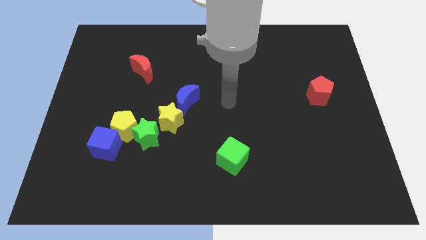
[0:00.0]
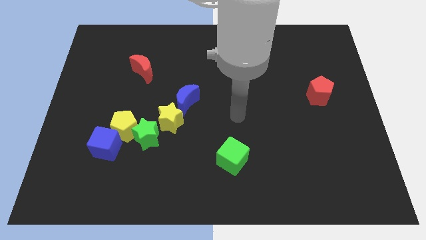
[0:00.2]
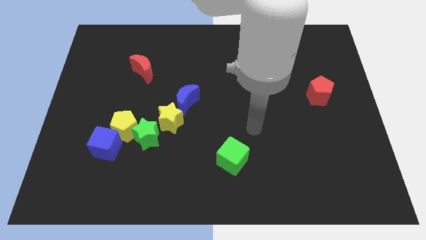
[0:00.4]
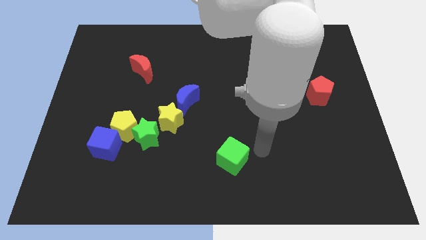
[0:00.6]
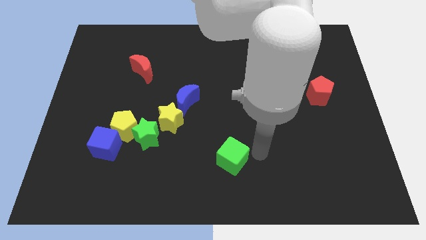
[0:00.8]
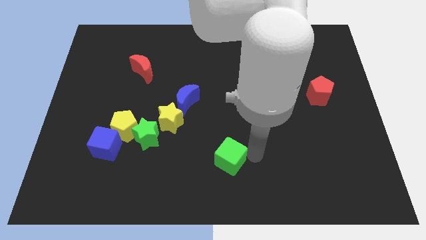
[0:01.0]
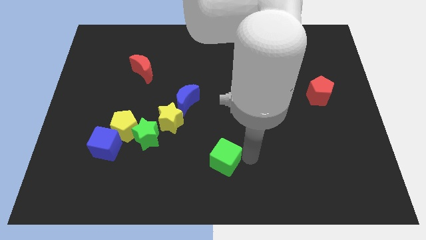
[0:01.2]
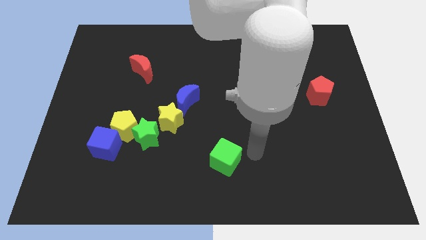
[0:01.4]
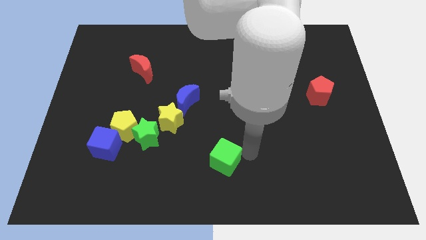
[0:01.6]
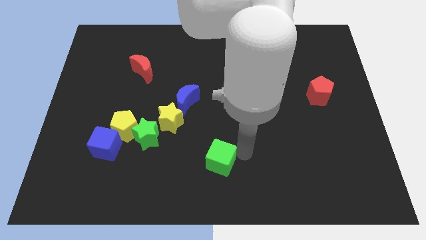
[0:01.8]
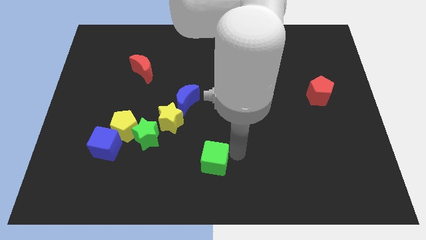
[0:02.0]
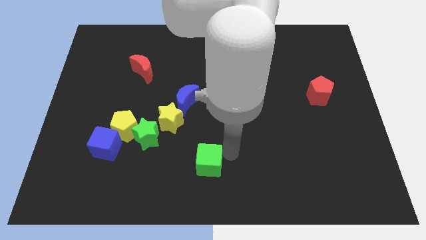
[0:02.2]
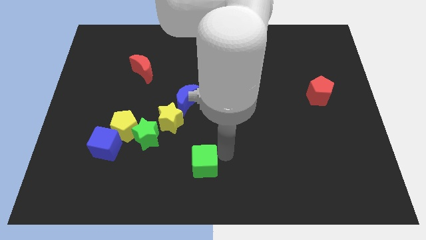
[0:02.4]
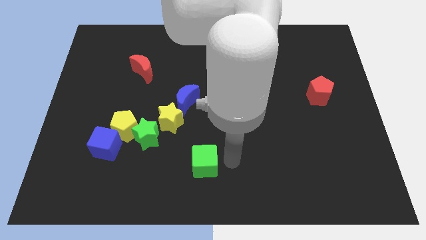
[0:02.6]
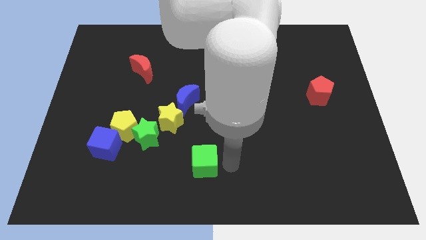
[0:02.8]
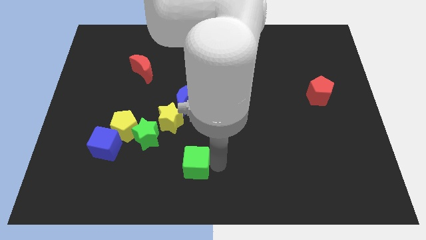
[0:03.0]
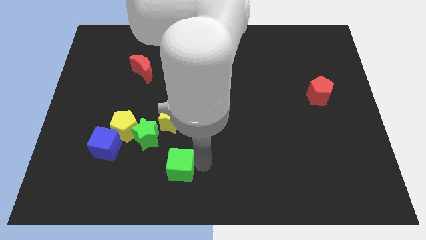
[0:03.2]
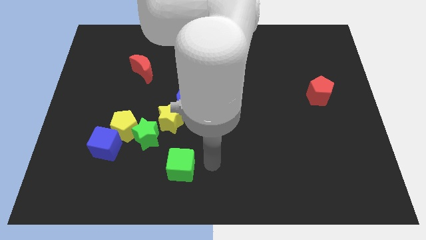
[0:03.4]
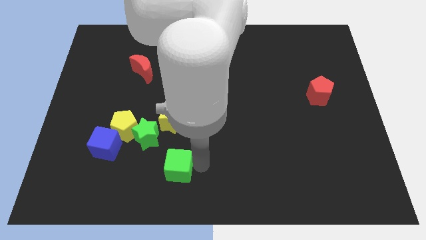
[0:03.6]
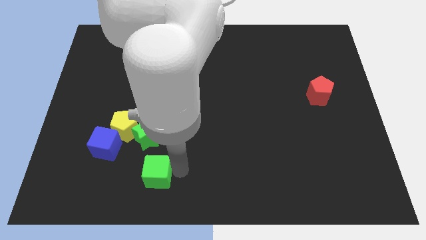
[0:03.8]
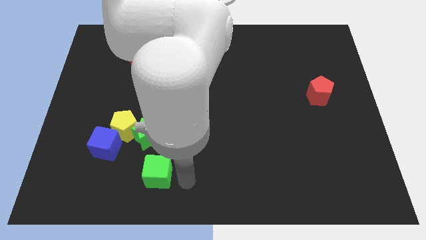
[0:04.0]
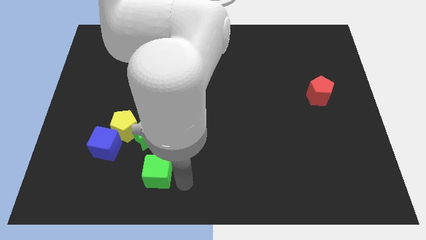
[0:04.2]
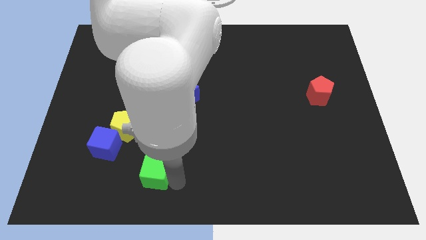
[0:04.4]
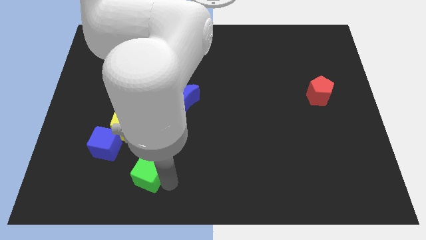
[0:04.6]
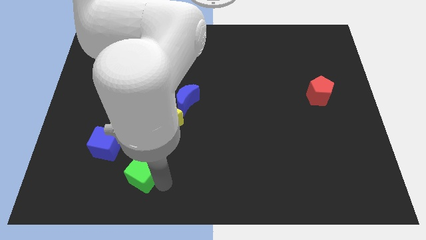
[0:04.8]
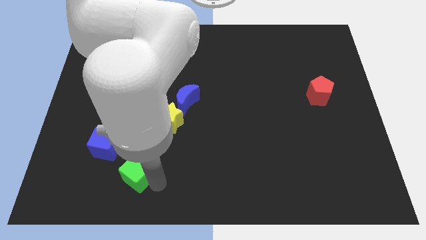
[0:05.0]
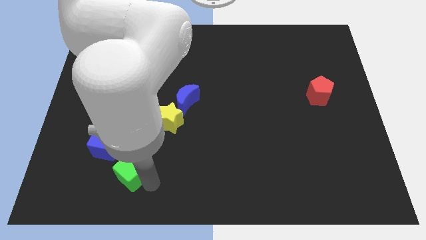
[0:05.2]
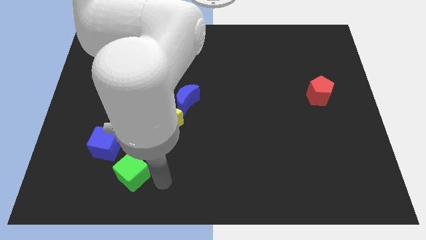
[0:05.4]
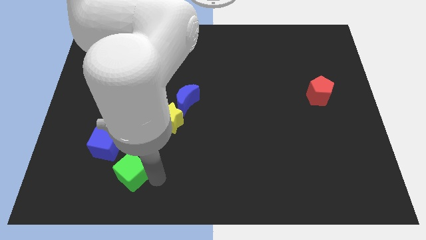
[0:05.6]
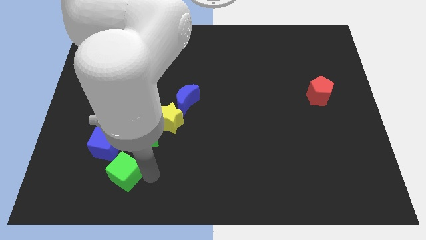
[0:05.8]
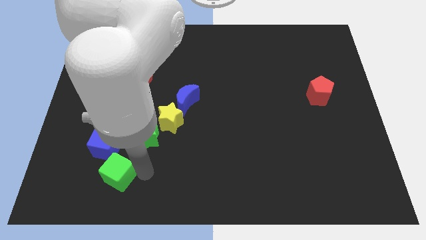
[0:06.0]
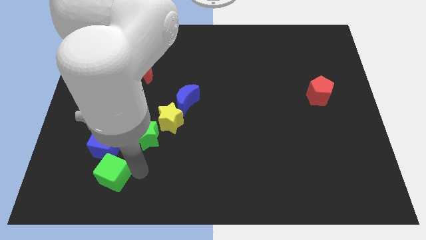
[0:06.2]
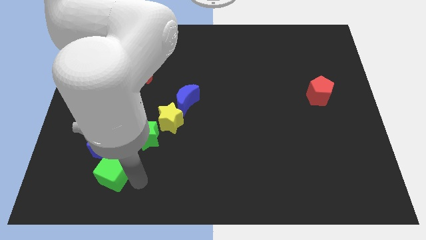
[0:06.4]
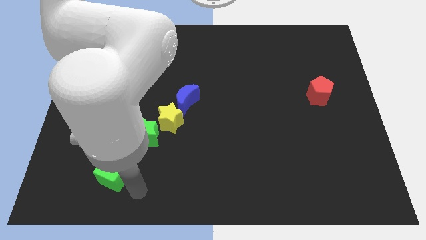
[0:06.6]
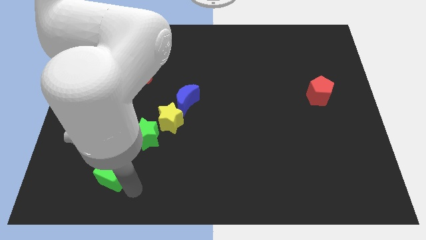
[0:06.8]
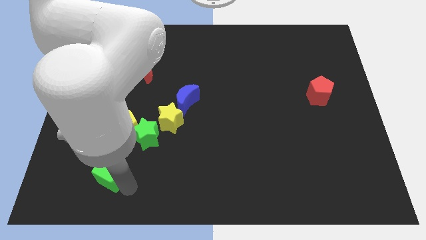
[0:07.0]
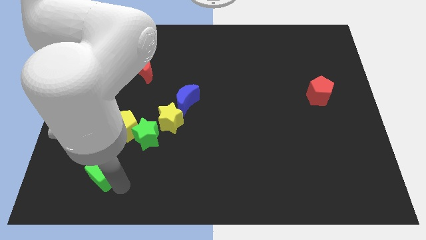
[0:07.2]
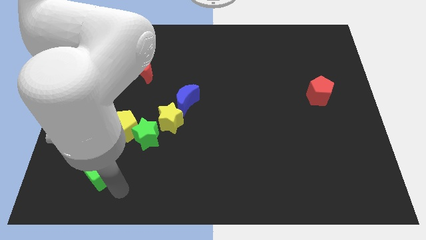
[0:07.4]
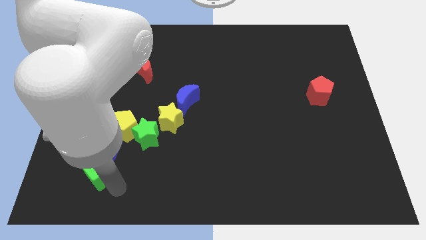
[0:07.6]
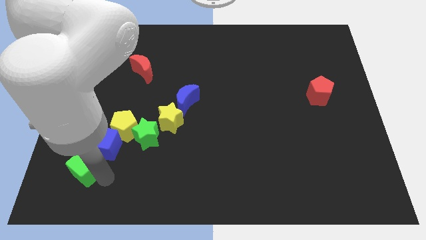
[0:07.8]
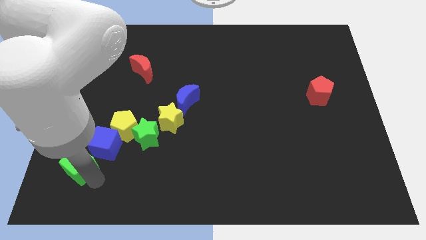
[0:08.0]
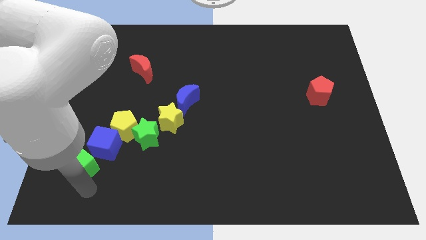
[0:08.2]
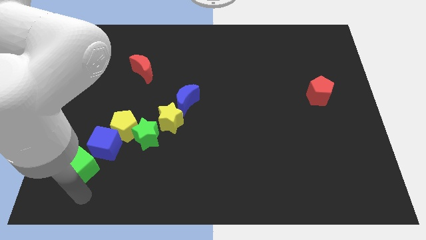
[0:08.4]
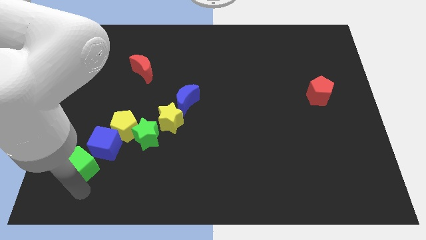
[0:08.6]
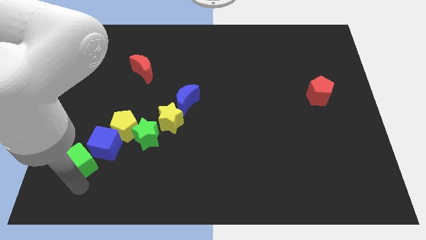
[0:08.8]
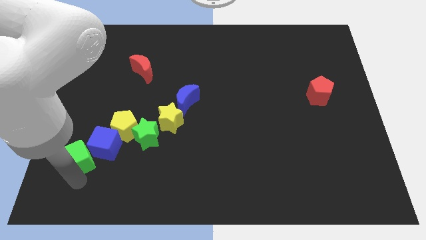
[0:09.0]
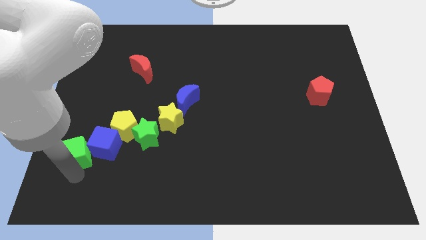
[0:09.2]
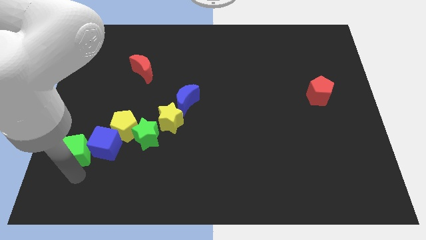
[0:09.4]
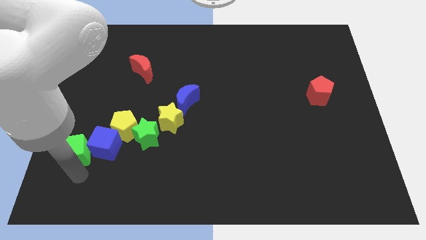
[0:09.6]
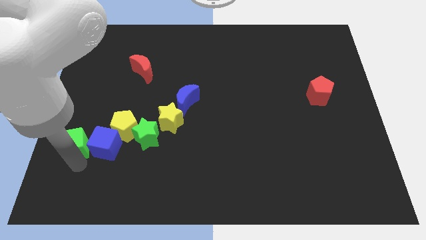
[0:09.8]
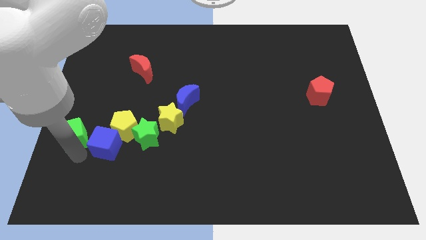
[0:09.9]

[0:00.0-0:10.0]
move the green cube to the center left

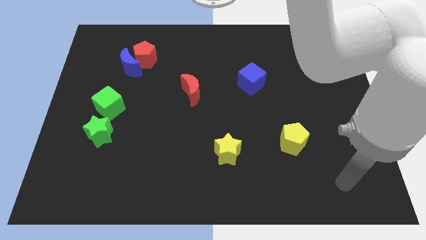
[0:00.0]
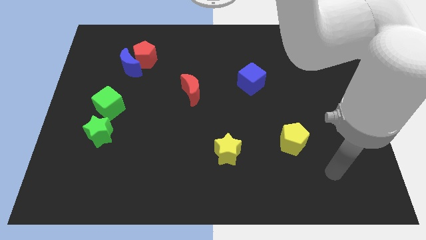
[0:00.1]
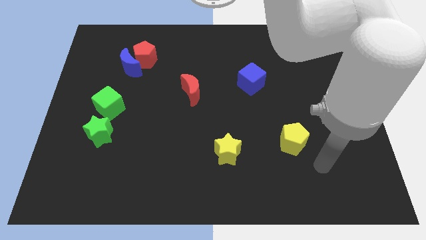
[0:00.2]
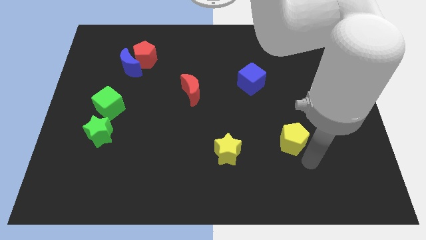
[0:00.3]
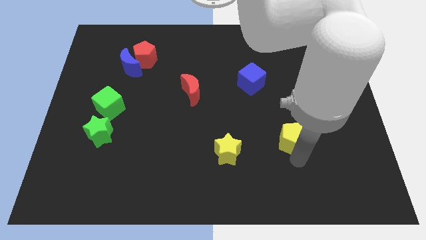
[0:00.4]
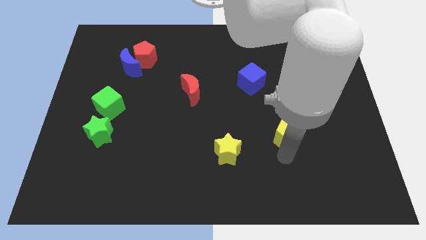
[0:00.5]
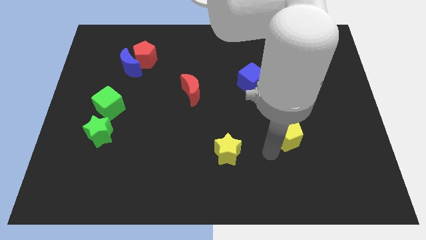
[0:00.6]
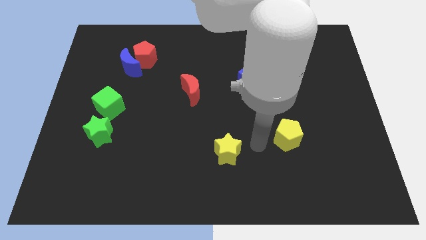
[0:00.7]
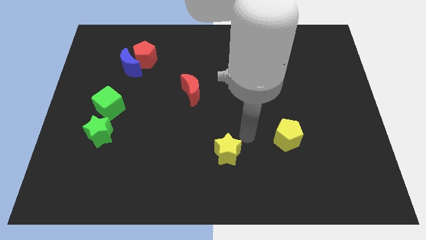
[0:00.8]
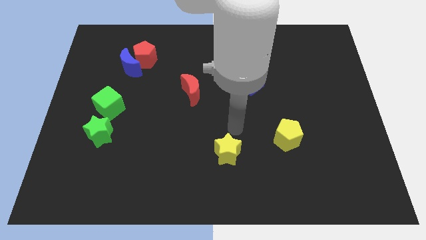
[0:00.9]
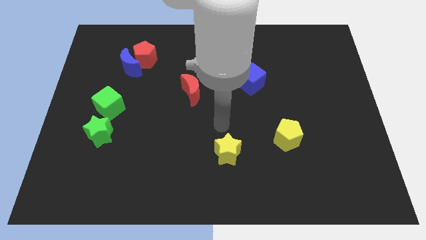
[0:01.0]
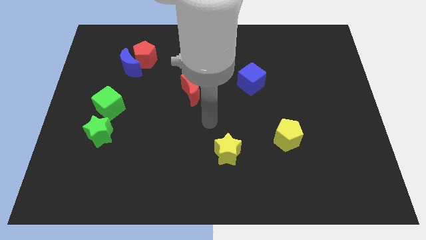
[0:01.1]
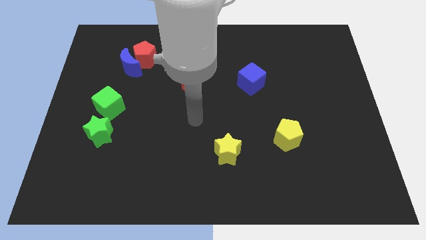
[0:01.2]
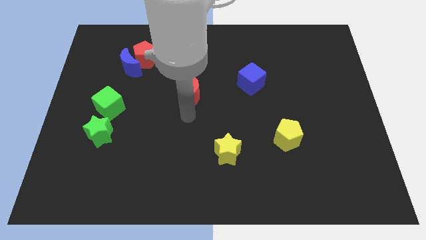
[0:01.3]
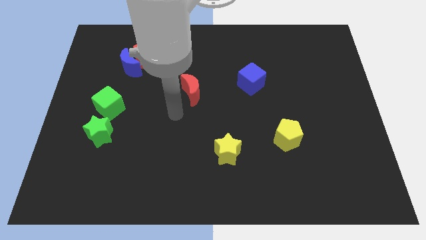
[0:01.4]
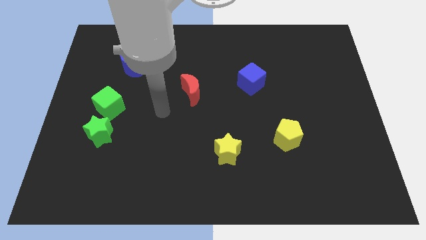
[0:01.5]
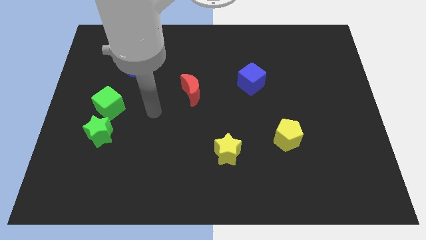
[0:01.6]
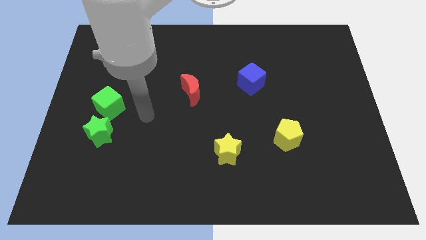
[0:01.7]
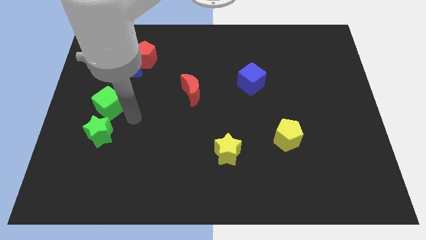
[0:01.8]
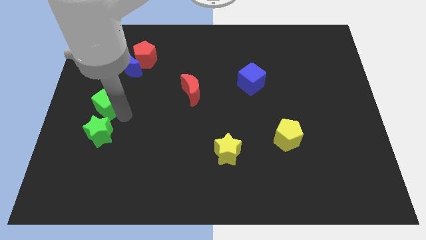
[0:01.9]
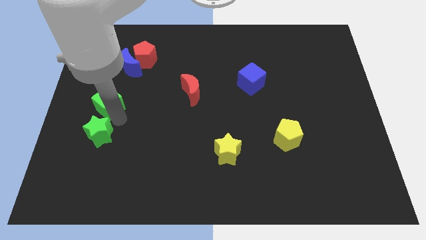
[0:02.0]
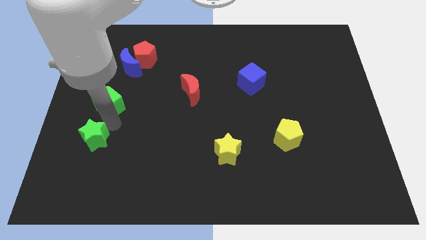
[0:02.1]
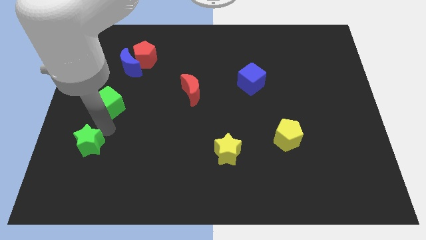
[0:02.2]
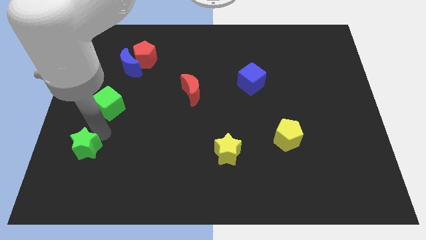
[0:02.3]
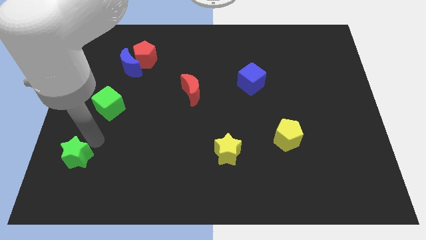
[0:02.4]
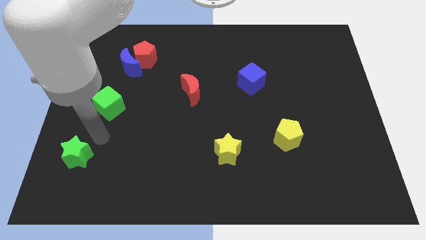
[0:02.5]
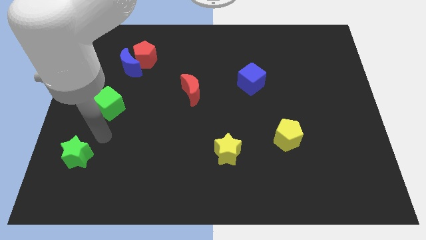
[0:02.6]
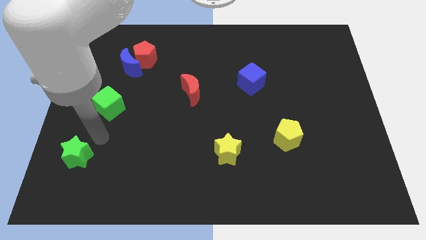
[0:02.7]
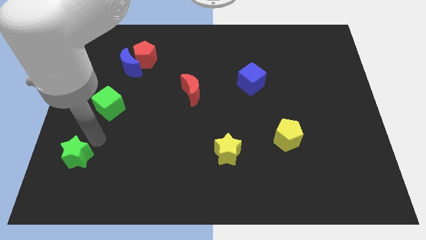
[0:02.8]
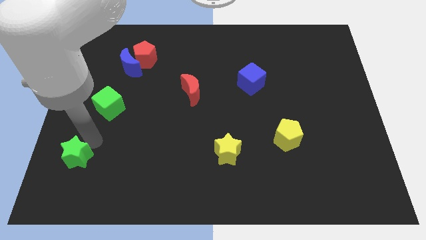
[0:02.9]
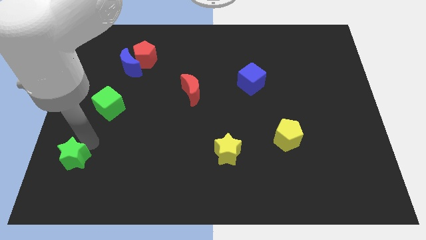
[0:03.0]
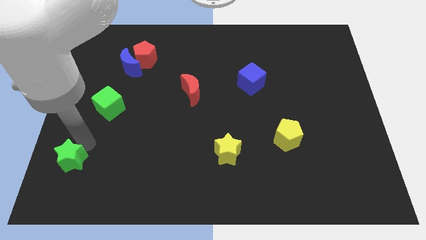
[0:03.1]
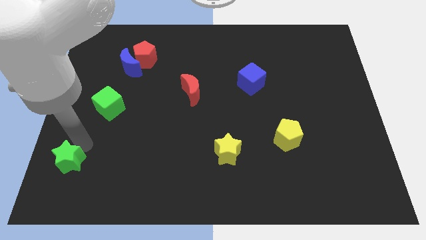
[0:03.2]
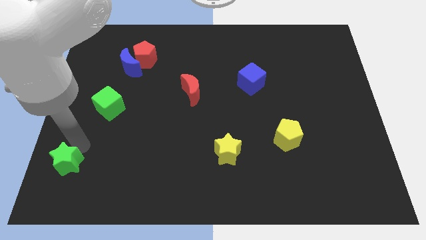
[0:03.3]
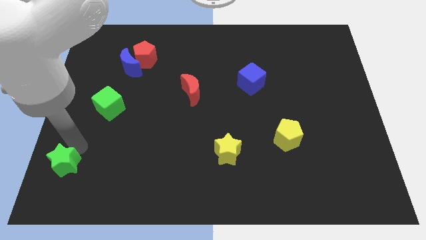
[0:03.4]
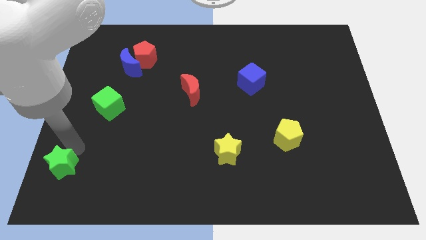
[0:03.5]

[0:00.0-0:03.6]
move the green star to the bottom left
